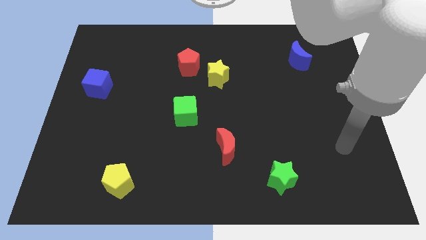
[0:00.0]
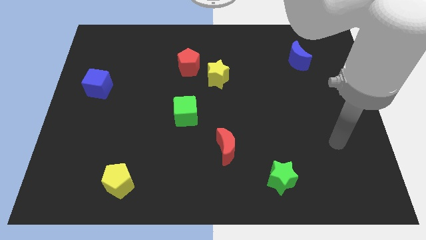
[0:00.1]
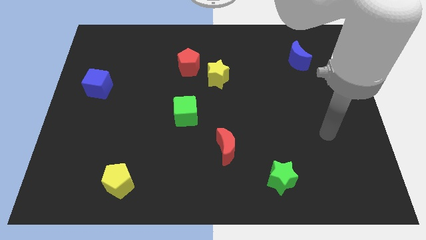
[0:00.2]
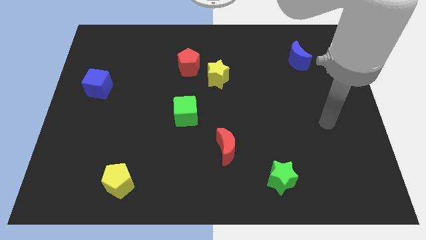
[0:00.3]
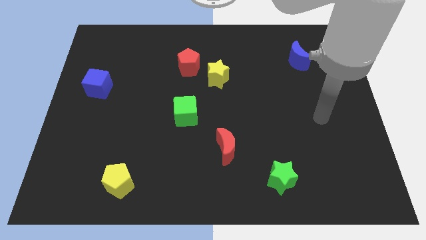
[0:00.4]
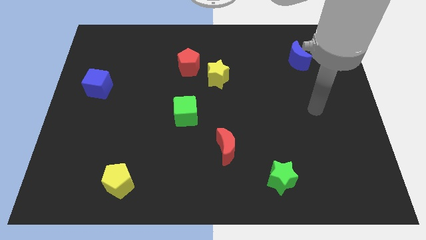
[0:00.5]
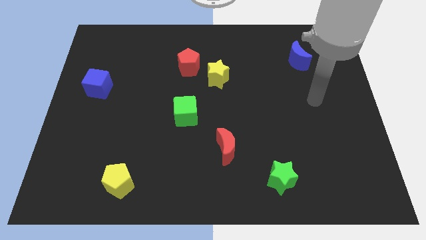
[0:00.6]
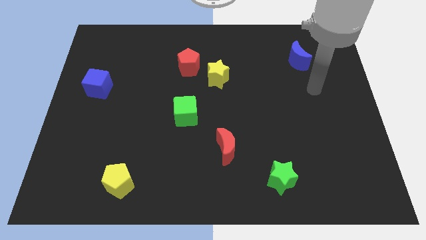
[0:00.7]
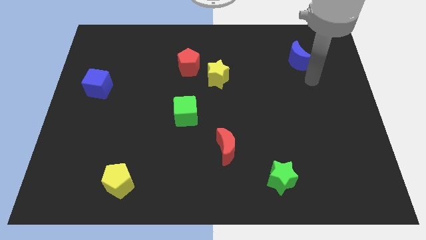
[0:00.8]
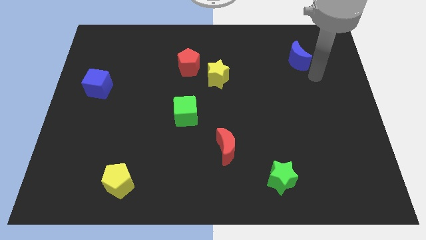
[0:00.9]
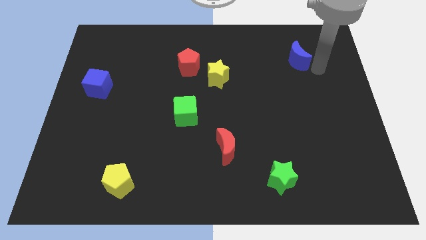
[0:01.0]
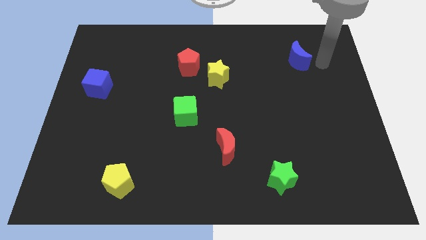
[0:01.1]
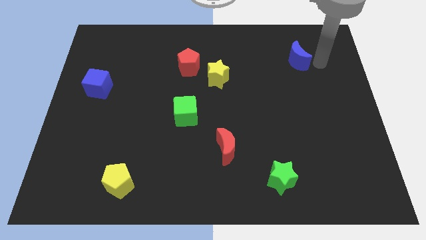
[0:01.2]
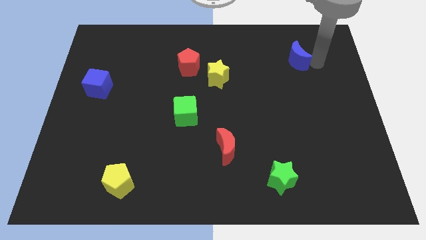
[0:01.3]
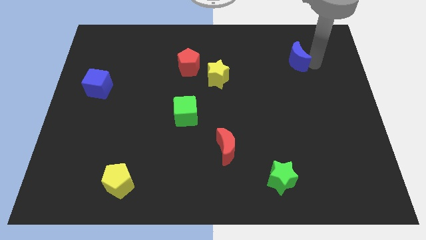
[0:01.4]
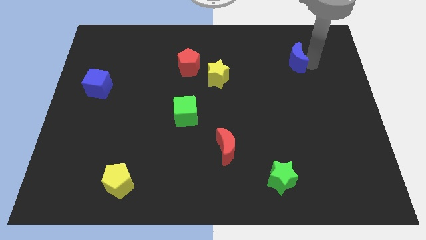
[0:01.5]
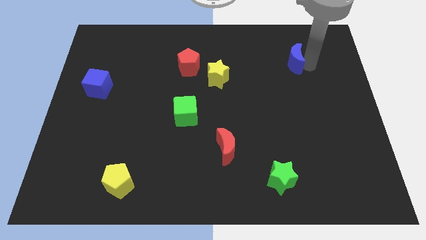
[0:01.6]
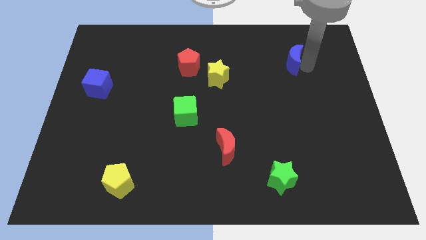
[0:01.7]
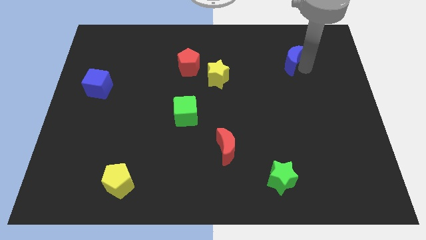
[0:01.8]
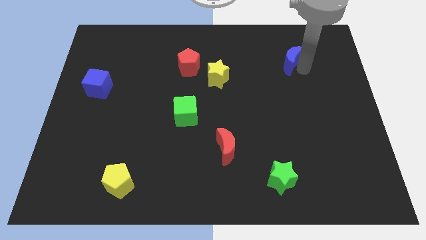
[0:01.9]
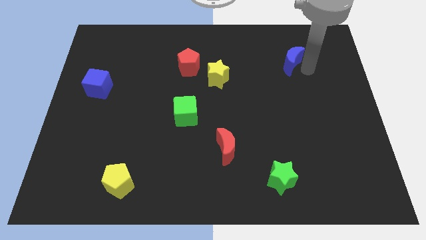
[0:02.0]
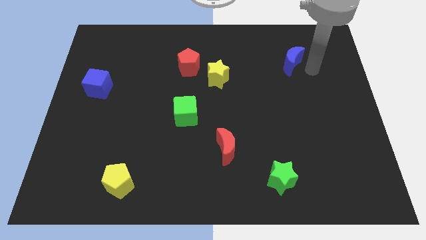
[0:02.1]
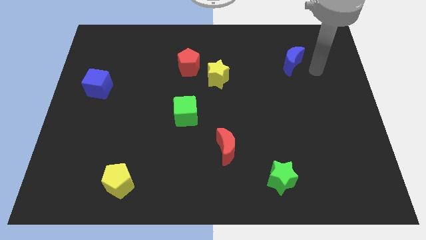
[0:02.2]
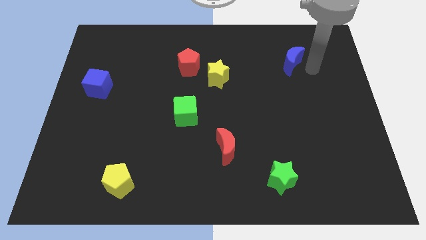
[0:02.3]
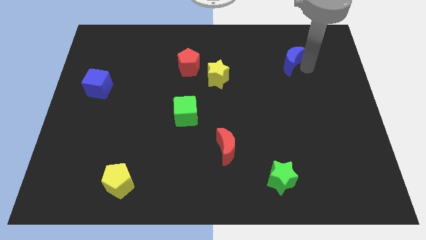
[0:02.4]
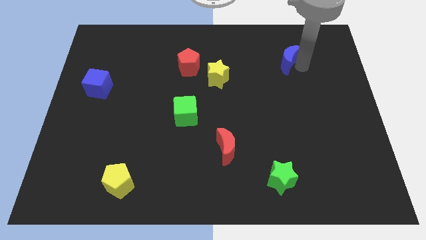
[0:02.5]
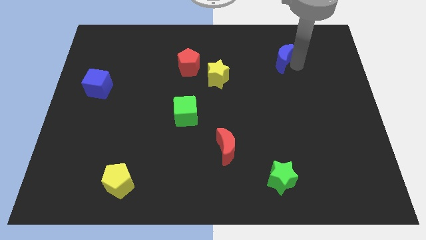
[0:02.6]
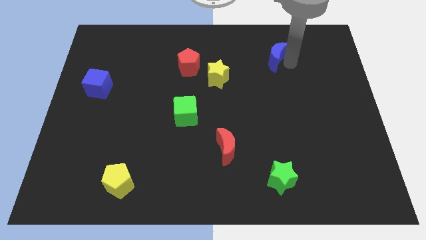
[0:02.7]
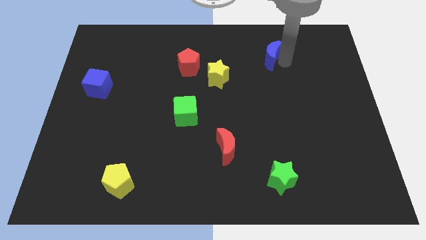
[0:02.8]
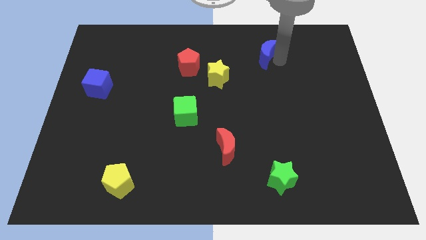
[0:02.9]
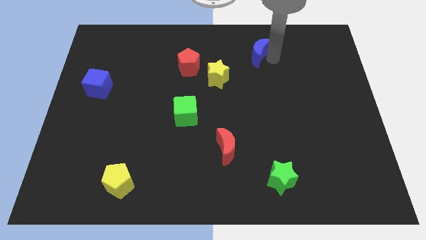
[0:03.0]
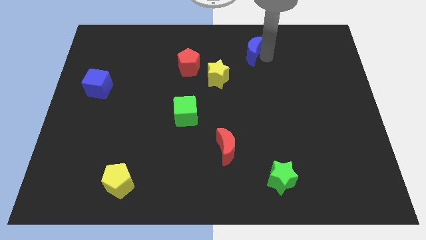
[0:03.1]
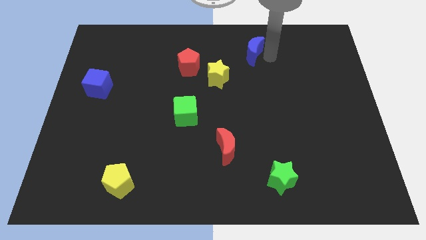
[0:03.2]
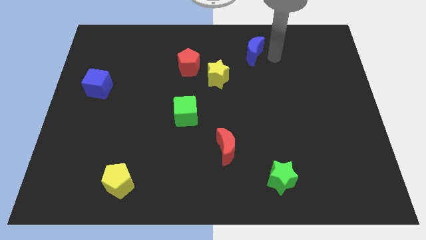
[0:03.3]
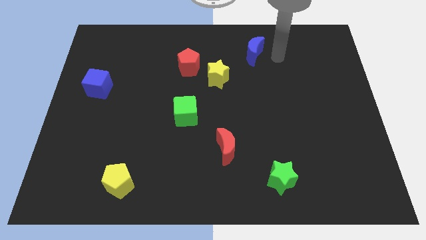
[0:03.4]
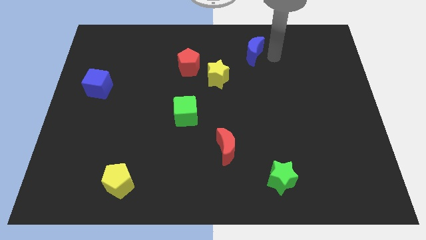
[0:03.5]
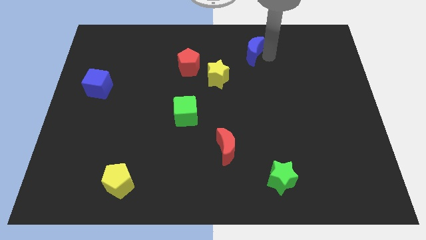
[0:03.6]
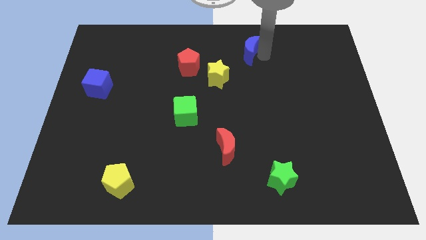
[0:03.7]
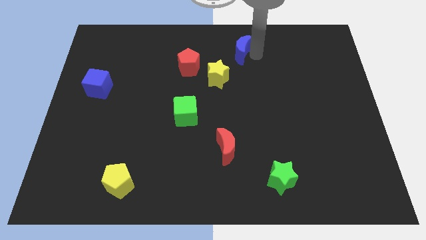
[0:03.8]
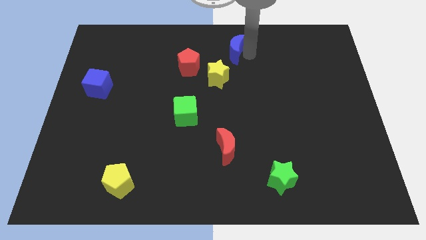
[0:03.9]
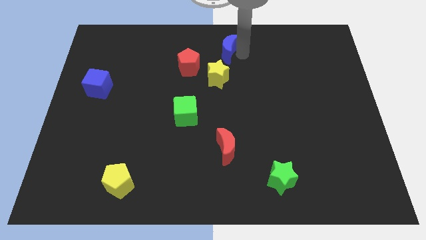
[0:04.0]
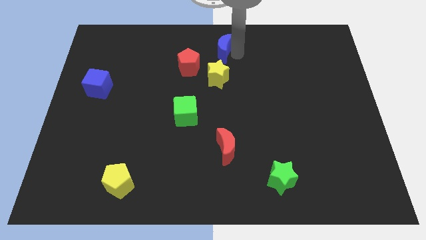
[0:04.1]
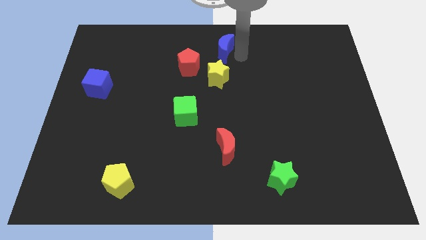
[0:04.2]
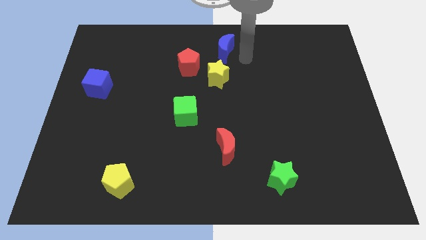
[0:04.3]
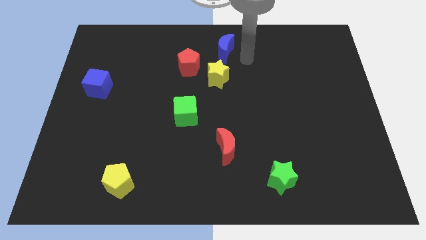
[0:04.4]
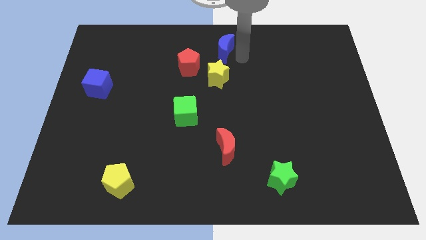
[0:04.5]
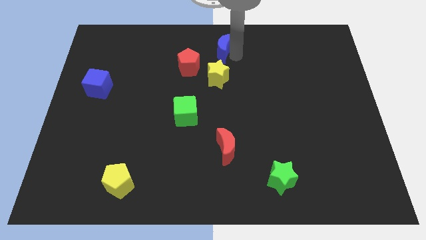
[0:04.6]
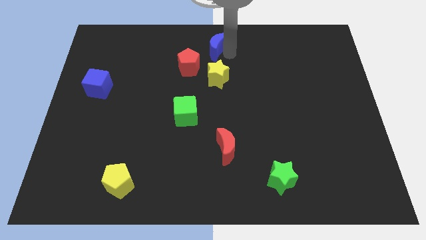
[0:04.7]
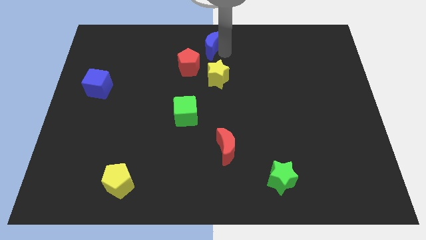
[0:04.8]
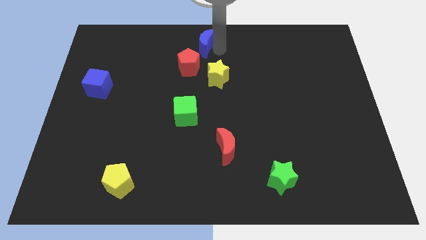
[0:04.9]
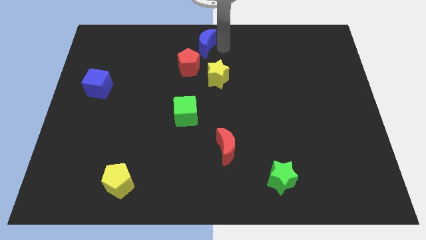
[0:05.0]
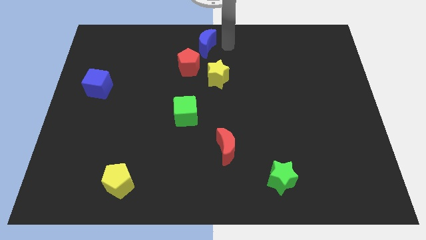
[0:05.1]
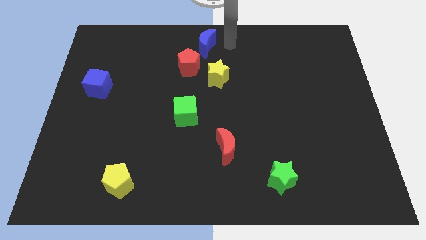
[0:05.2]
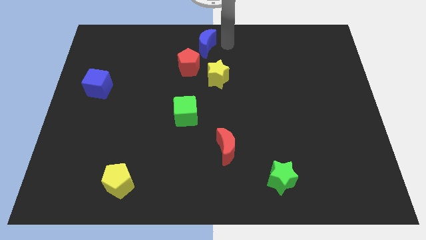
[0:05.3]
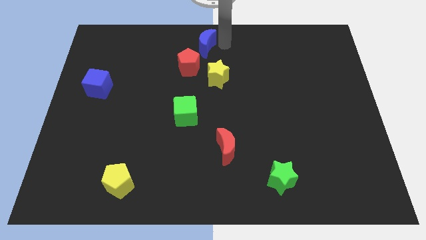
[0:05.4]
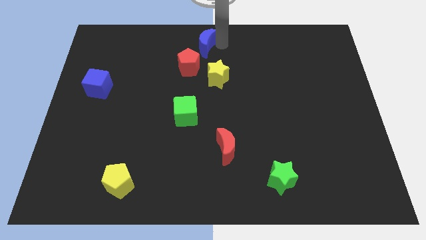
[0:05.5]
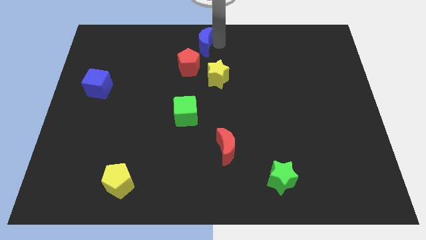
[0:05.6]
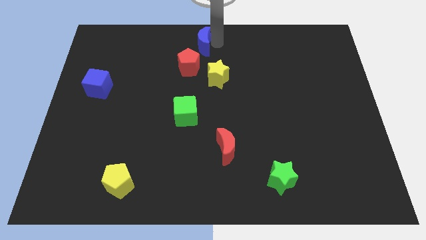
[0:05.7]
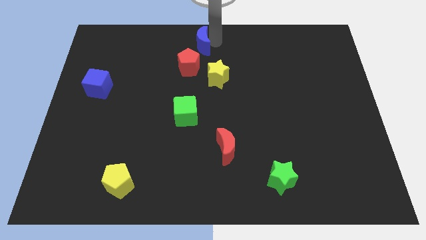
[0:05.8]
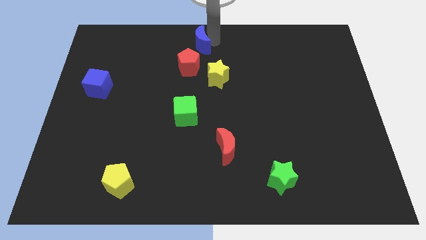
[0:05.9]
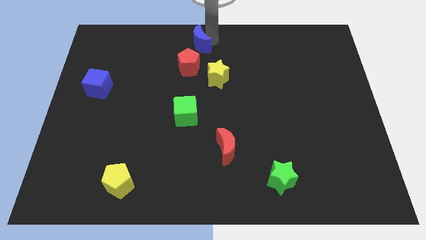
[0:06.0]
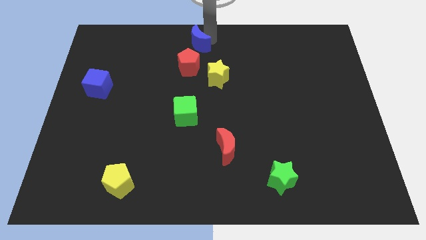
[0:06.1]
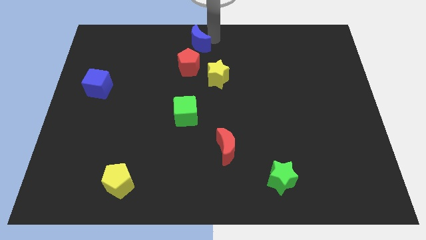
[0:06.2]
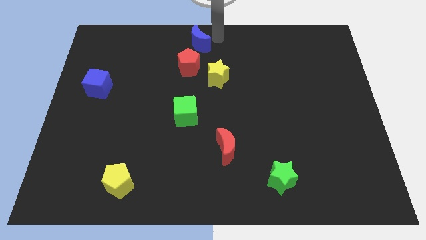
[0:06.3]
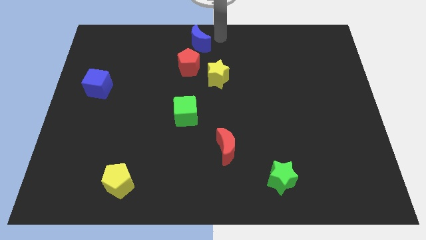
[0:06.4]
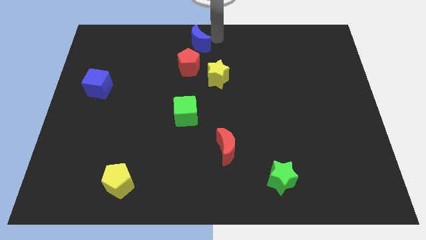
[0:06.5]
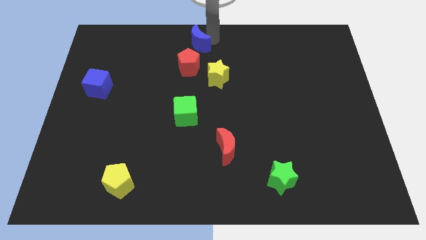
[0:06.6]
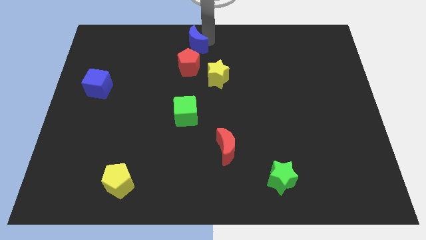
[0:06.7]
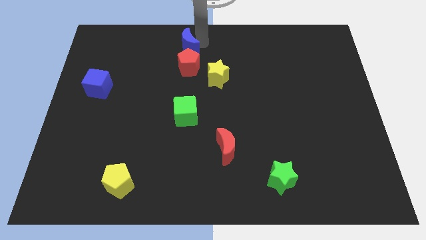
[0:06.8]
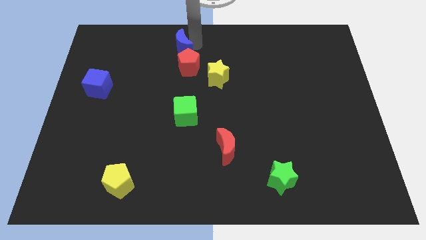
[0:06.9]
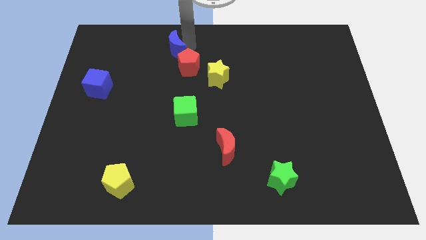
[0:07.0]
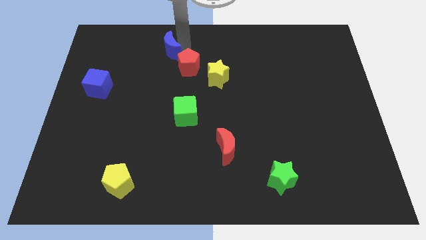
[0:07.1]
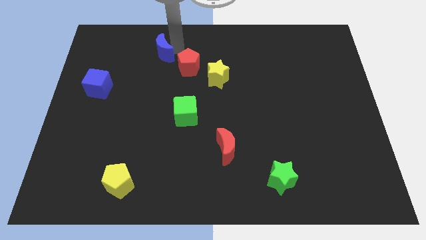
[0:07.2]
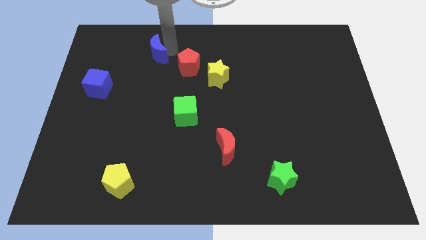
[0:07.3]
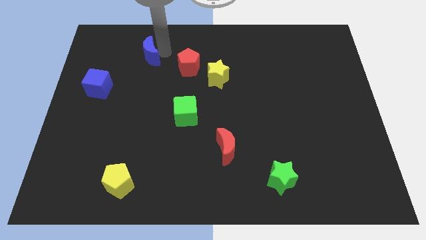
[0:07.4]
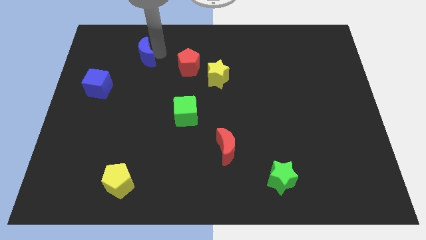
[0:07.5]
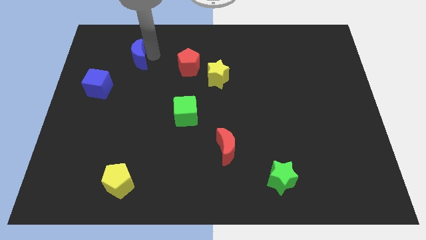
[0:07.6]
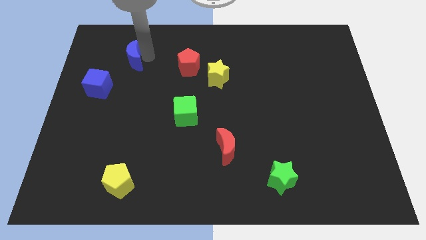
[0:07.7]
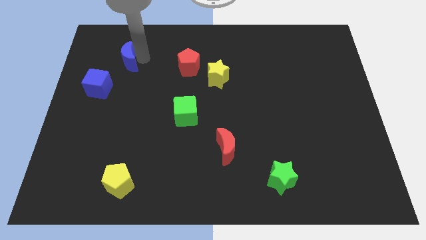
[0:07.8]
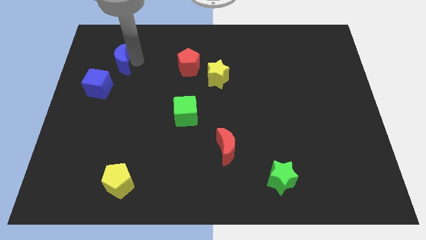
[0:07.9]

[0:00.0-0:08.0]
push the blue moon above the blue cube
